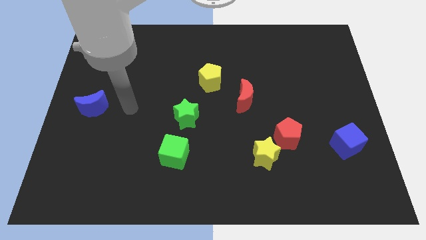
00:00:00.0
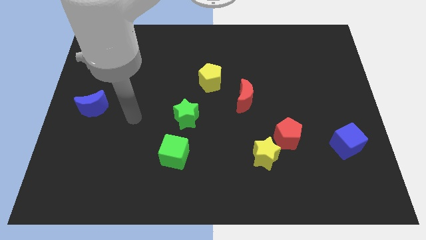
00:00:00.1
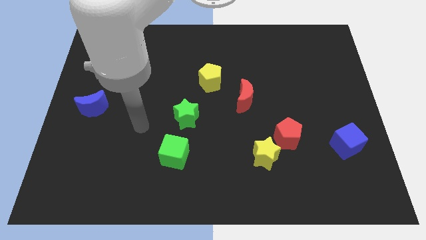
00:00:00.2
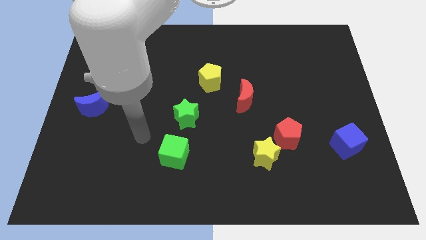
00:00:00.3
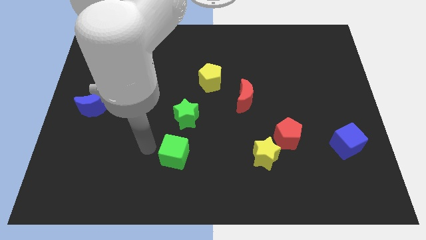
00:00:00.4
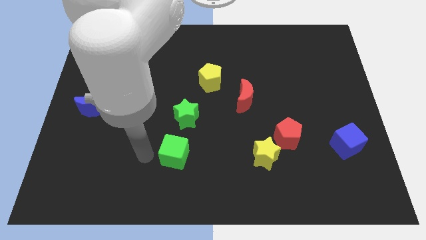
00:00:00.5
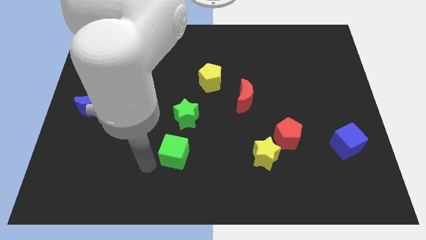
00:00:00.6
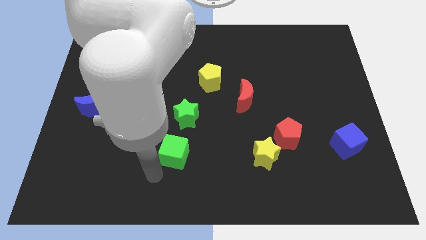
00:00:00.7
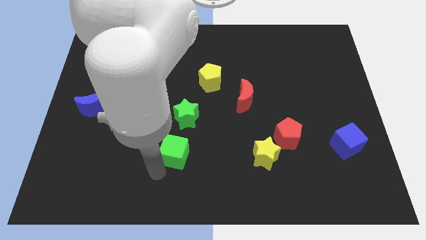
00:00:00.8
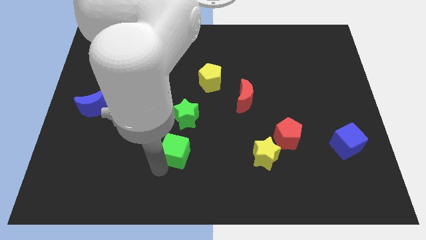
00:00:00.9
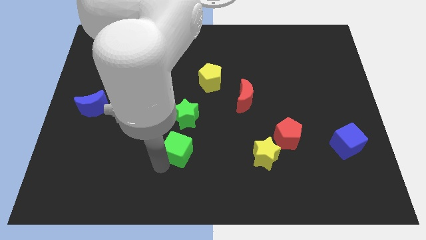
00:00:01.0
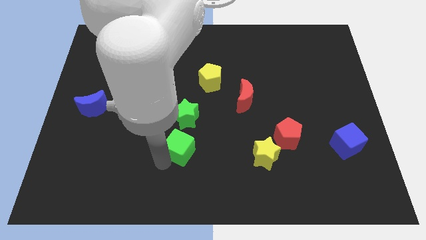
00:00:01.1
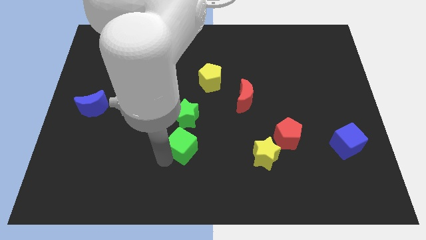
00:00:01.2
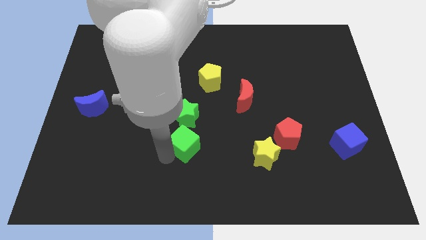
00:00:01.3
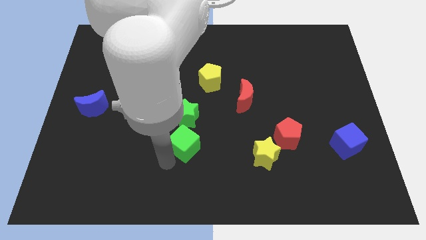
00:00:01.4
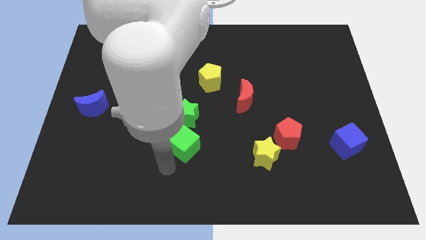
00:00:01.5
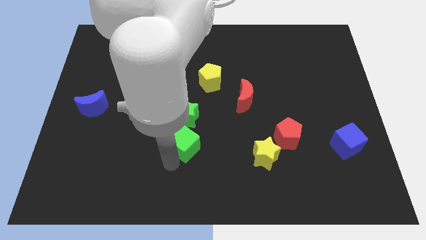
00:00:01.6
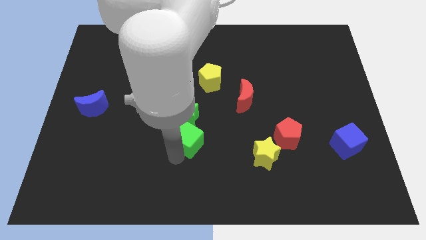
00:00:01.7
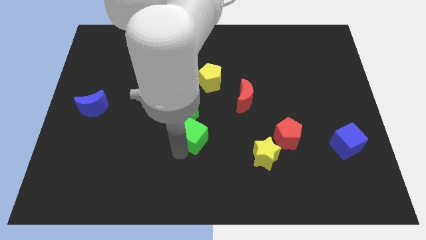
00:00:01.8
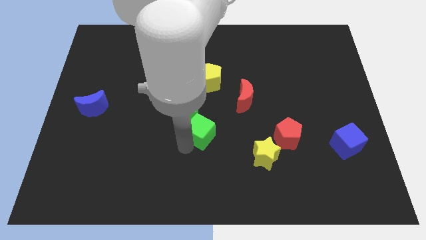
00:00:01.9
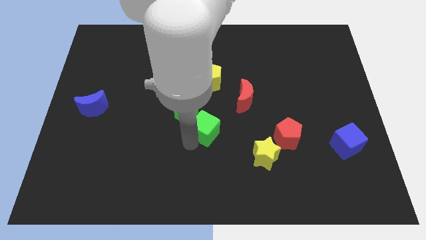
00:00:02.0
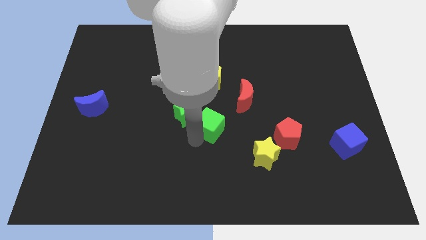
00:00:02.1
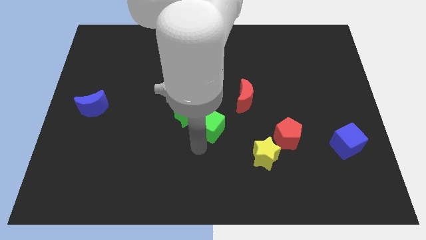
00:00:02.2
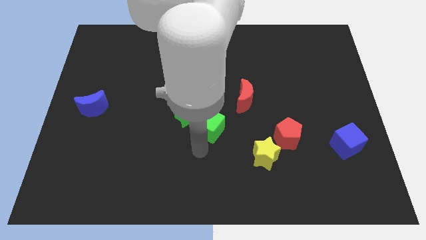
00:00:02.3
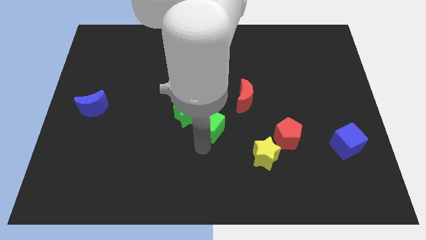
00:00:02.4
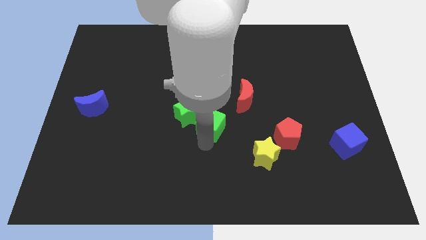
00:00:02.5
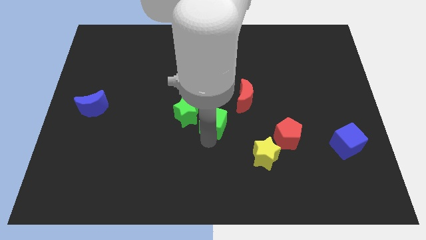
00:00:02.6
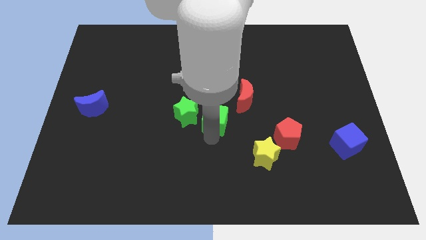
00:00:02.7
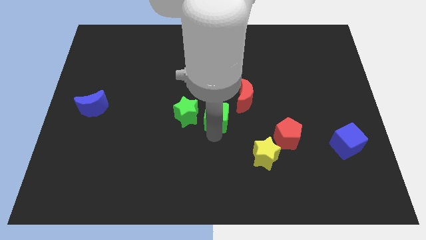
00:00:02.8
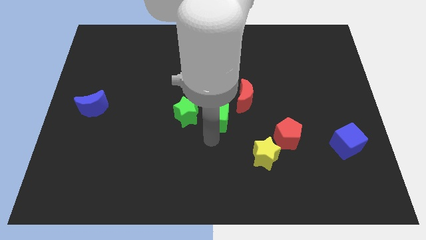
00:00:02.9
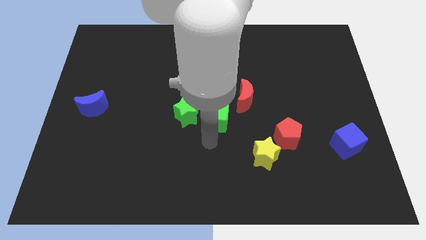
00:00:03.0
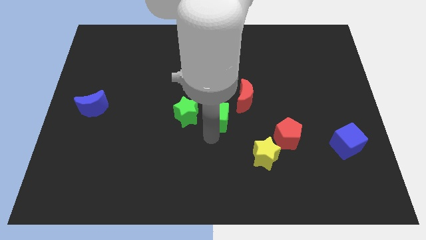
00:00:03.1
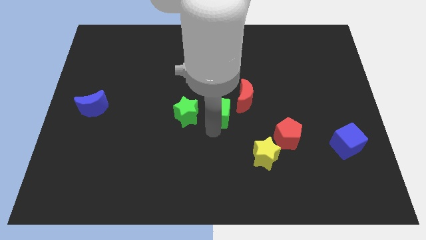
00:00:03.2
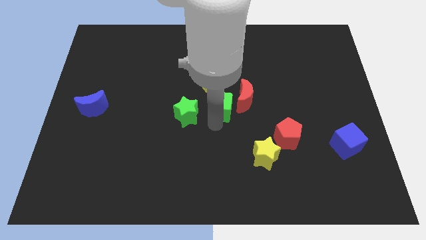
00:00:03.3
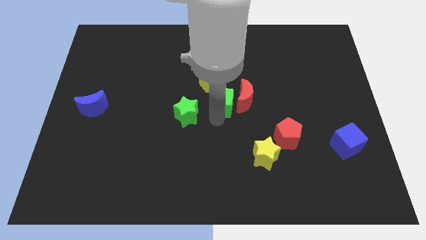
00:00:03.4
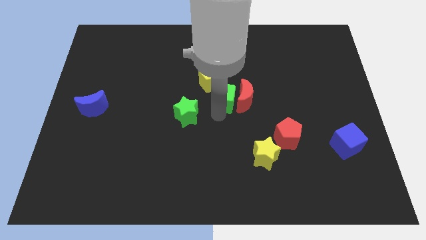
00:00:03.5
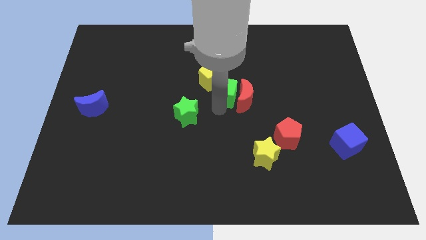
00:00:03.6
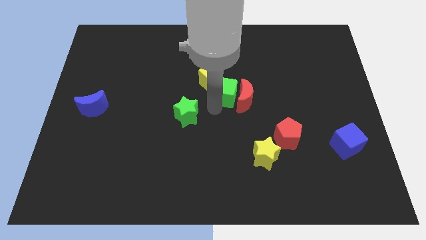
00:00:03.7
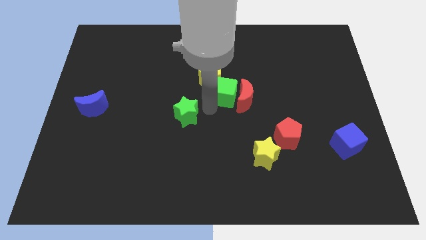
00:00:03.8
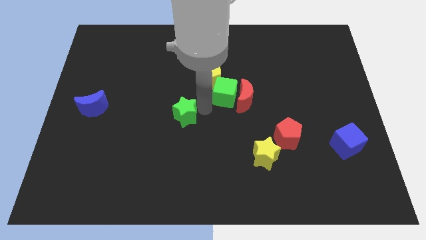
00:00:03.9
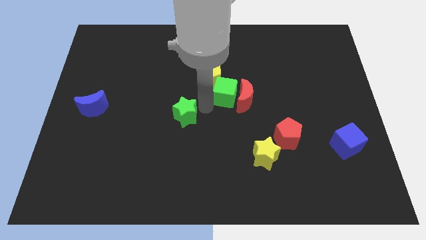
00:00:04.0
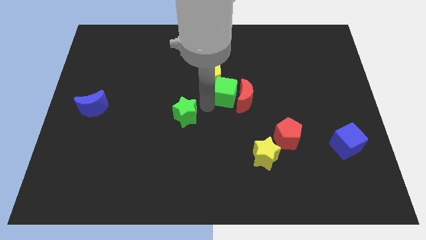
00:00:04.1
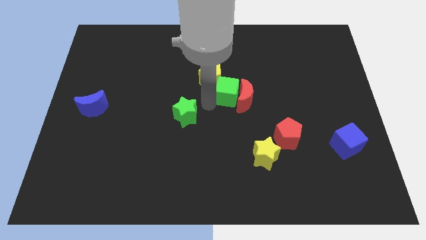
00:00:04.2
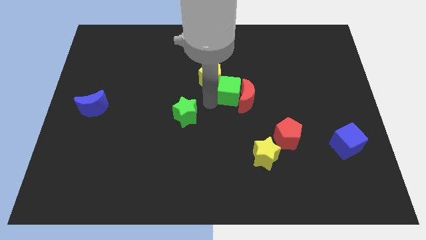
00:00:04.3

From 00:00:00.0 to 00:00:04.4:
move the green cube upwards and right

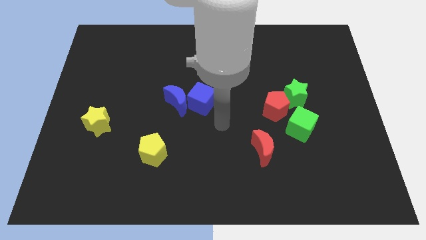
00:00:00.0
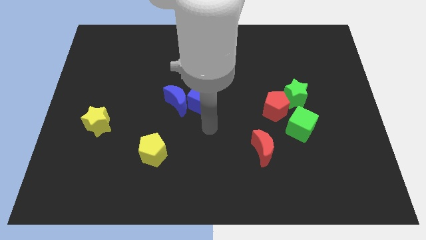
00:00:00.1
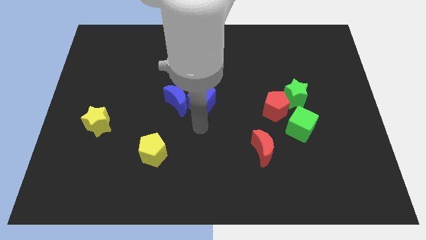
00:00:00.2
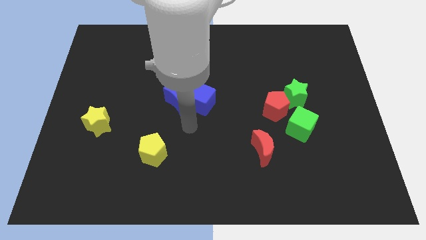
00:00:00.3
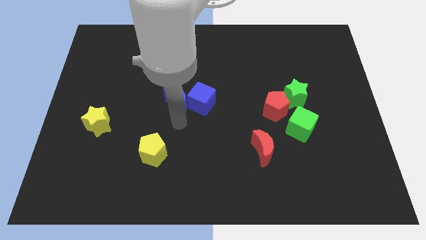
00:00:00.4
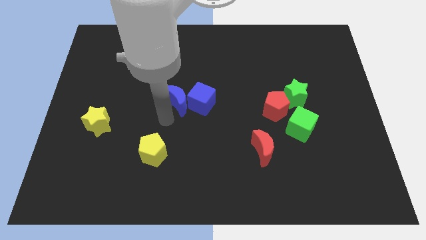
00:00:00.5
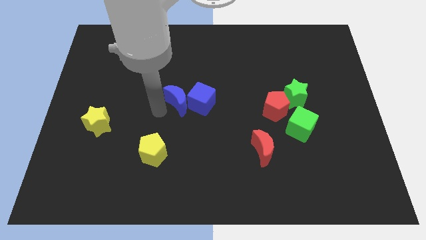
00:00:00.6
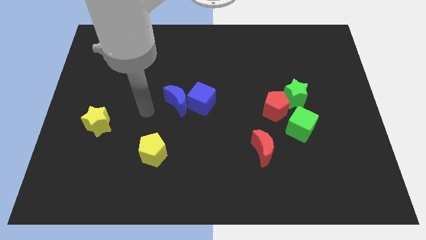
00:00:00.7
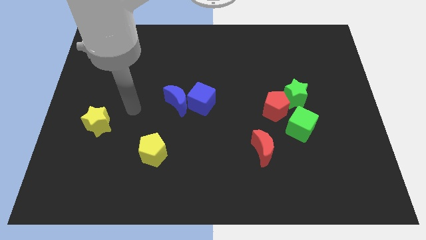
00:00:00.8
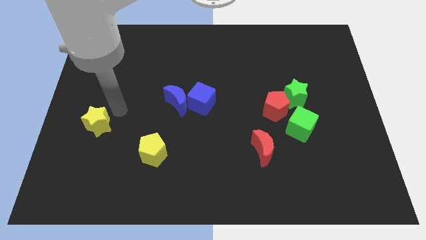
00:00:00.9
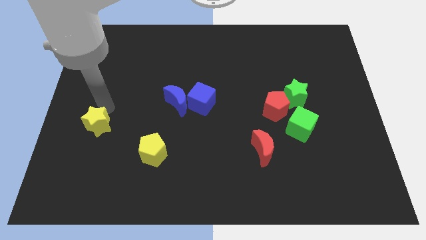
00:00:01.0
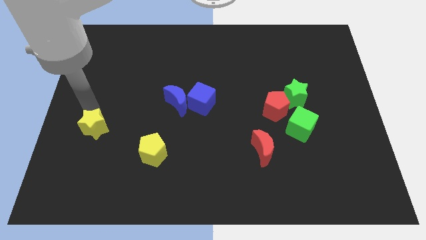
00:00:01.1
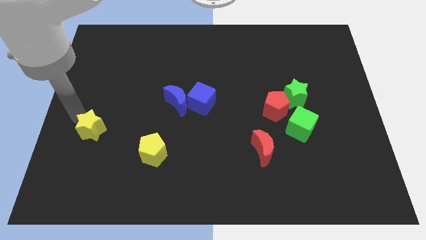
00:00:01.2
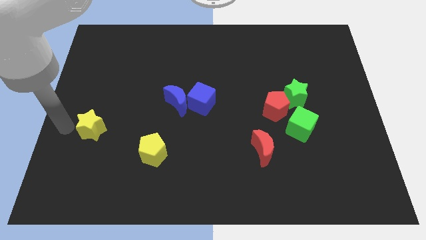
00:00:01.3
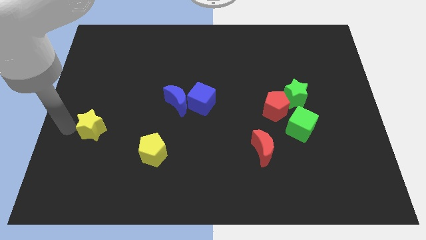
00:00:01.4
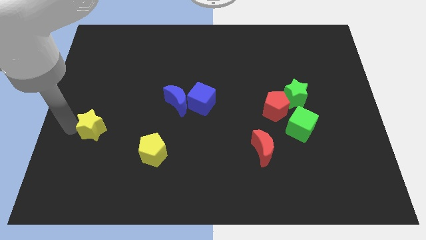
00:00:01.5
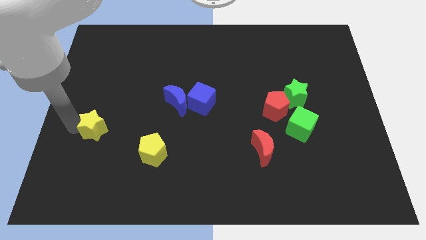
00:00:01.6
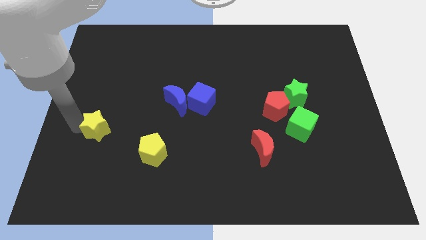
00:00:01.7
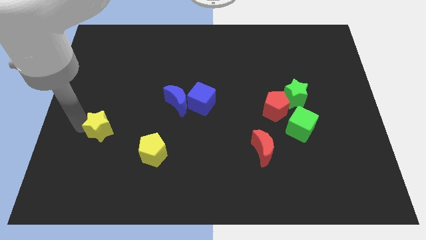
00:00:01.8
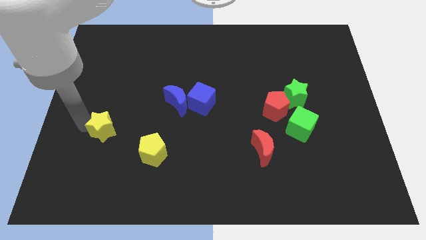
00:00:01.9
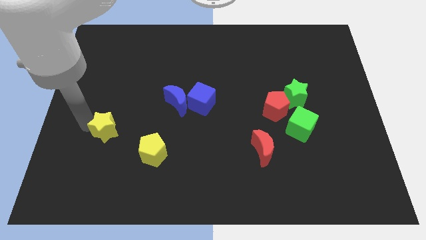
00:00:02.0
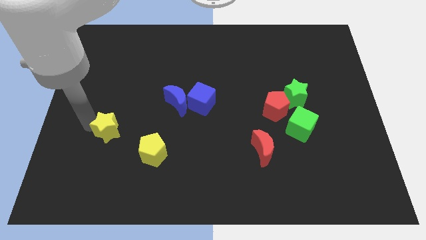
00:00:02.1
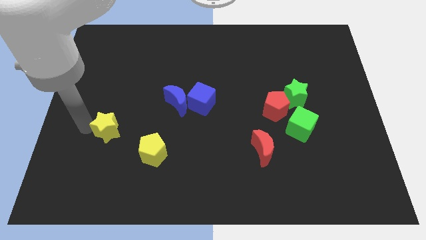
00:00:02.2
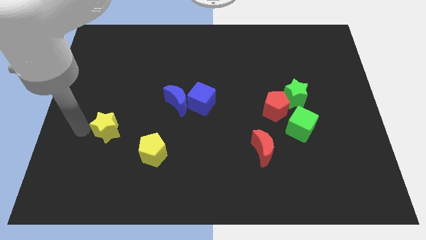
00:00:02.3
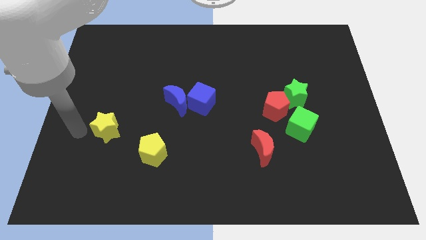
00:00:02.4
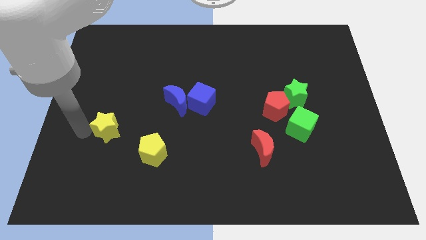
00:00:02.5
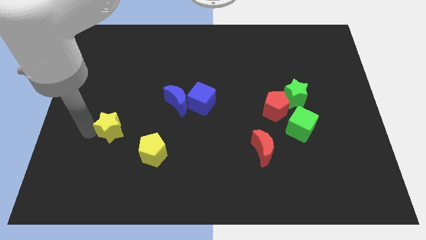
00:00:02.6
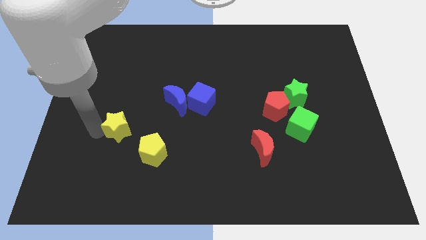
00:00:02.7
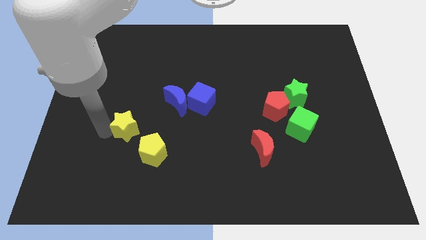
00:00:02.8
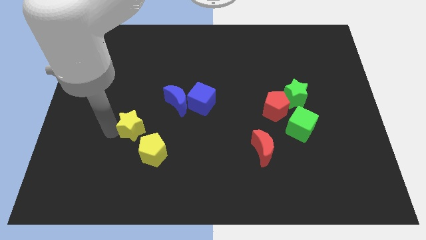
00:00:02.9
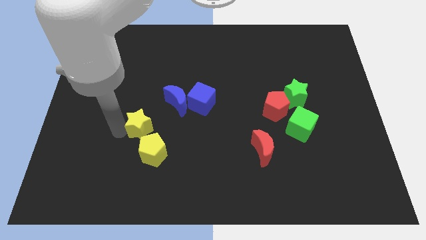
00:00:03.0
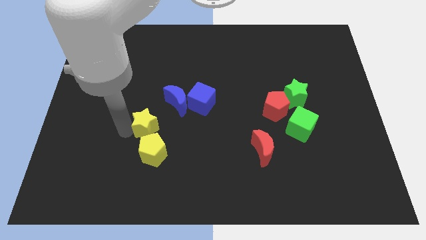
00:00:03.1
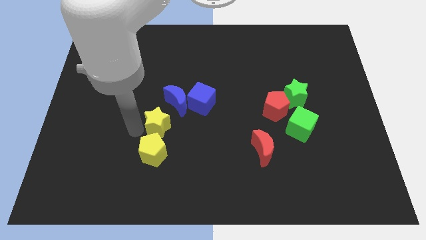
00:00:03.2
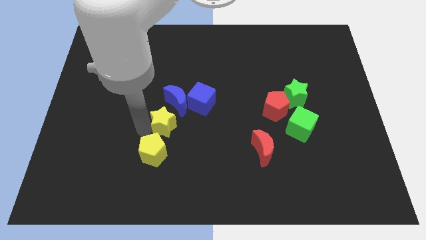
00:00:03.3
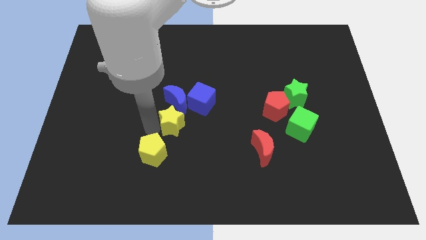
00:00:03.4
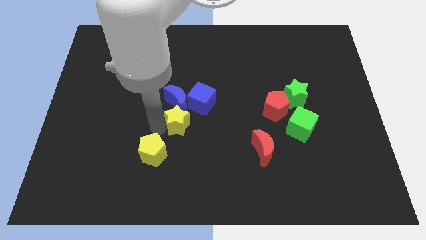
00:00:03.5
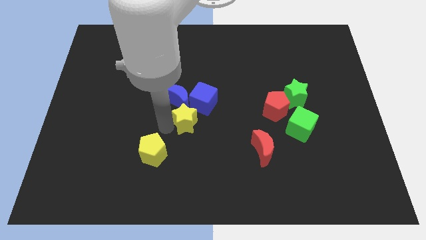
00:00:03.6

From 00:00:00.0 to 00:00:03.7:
move the yellow star right
